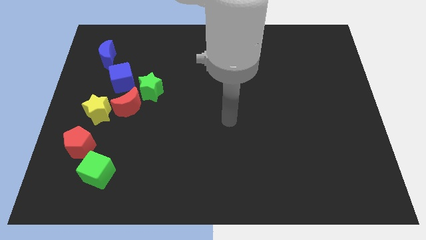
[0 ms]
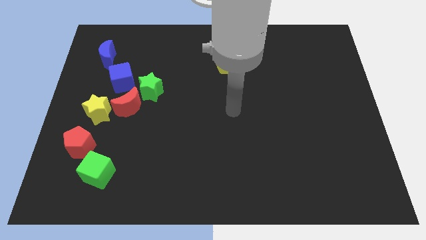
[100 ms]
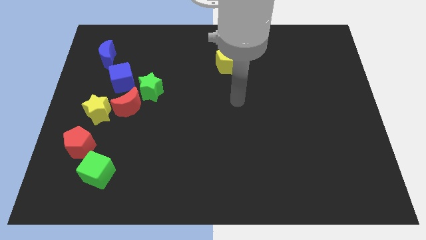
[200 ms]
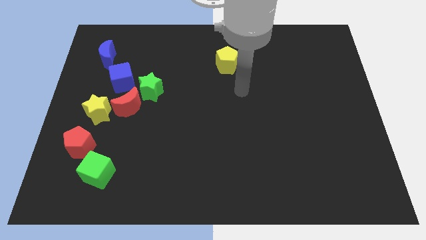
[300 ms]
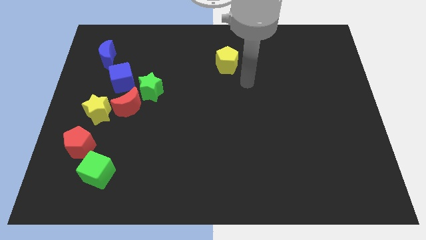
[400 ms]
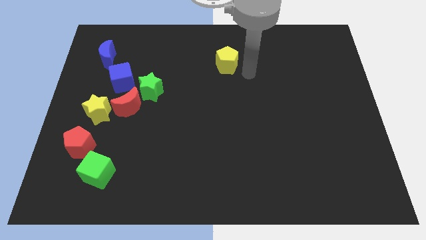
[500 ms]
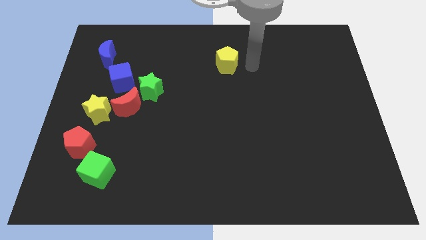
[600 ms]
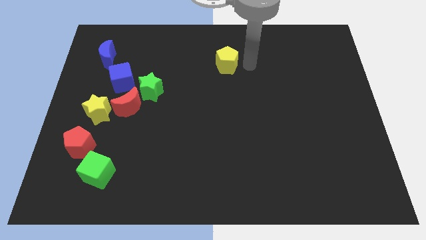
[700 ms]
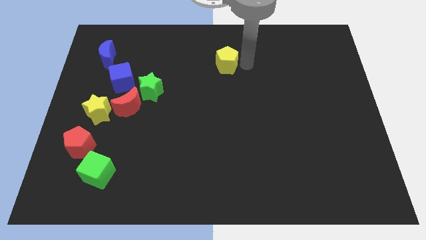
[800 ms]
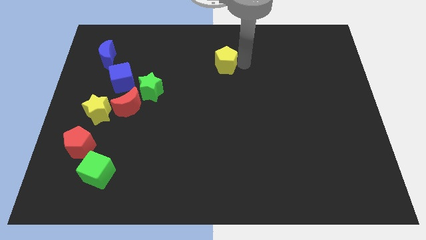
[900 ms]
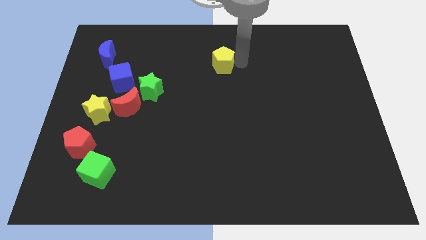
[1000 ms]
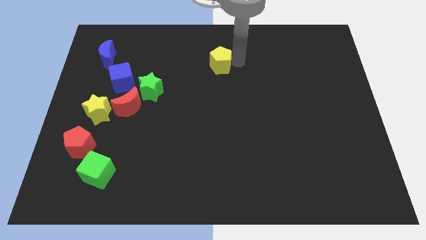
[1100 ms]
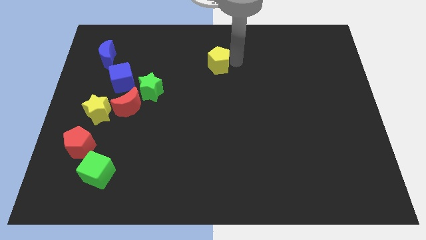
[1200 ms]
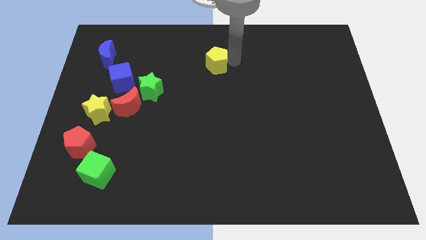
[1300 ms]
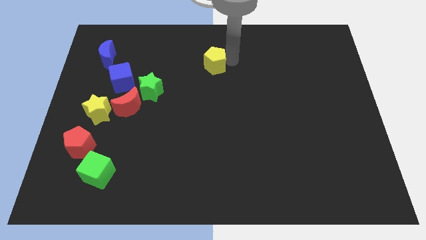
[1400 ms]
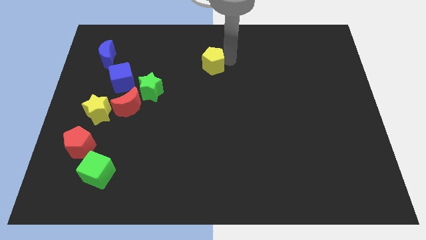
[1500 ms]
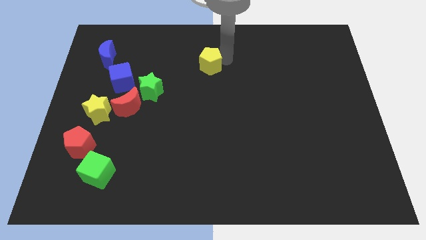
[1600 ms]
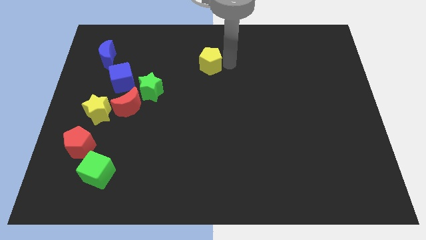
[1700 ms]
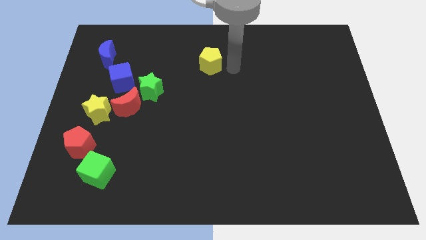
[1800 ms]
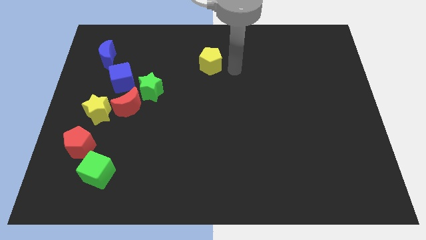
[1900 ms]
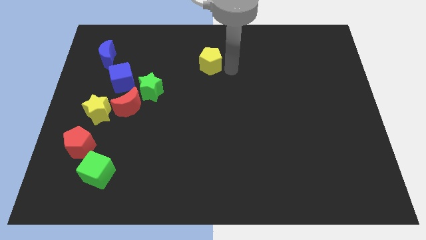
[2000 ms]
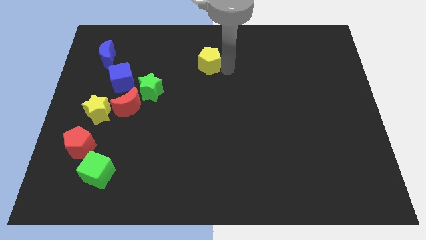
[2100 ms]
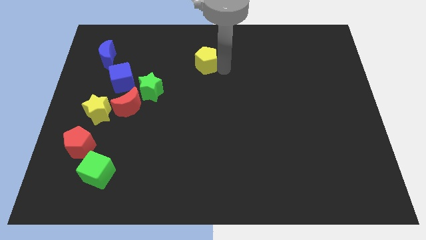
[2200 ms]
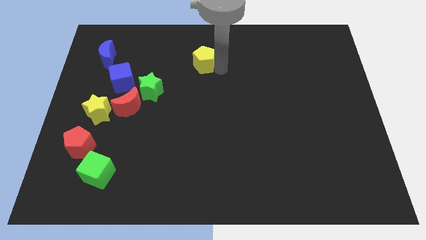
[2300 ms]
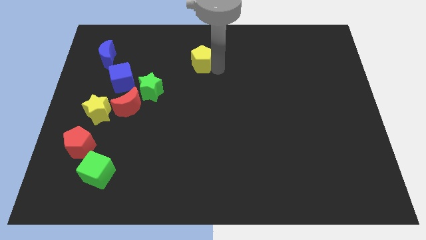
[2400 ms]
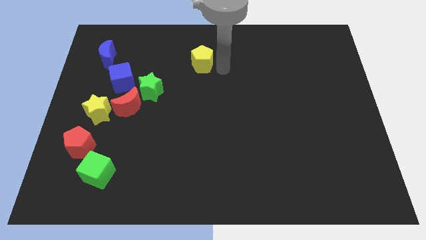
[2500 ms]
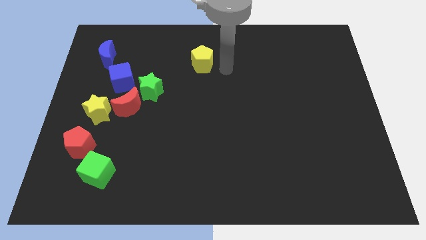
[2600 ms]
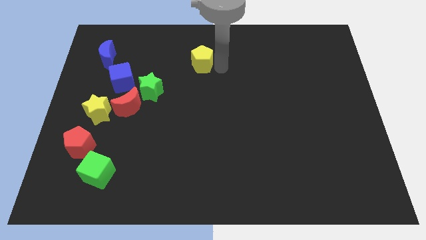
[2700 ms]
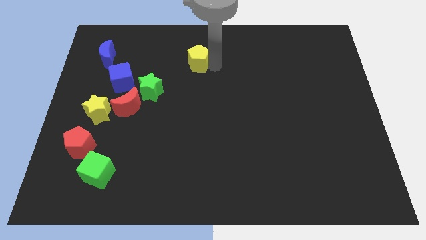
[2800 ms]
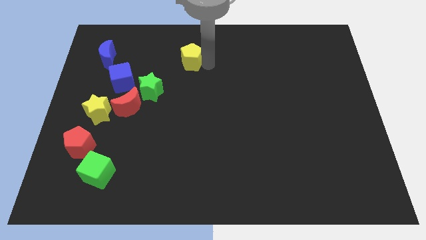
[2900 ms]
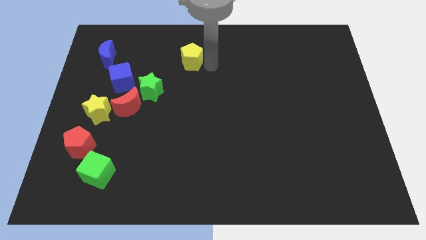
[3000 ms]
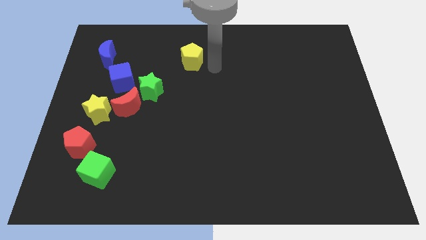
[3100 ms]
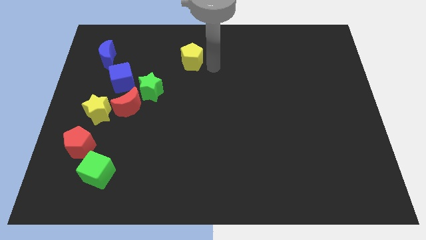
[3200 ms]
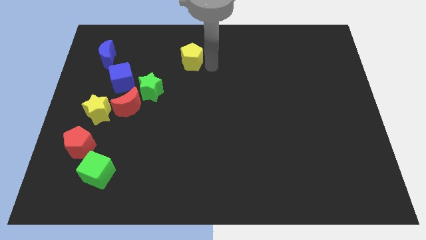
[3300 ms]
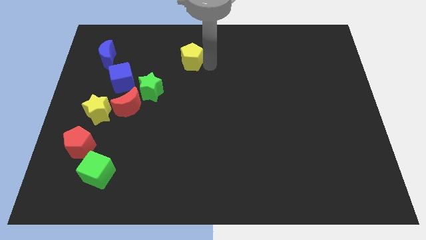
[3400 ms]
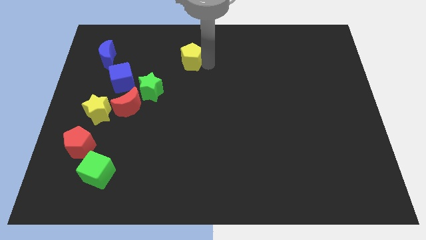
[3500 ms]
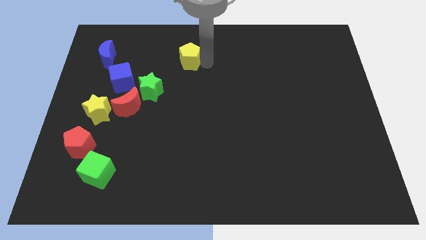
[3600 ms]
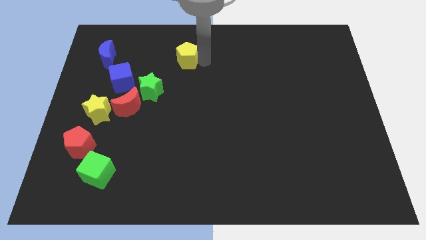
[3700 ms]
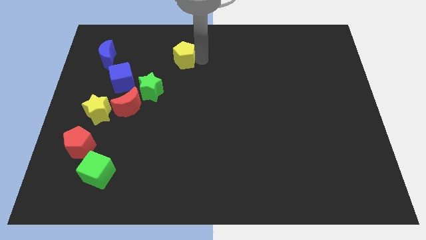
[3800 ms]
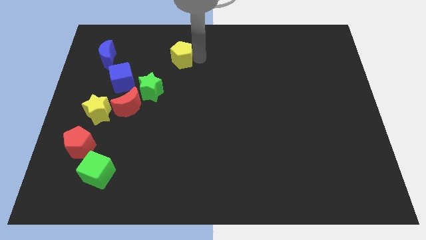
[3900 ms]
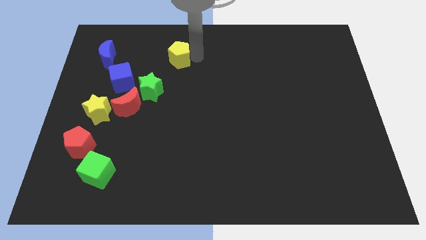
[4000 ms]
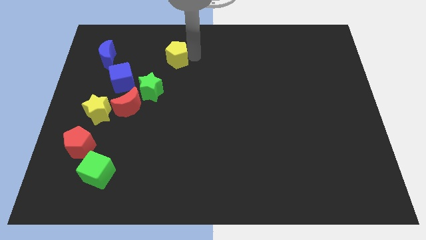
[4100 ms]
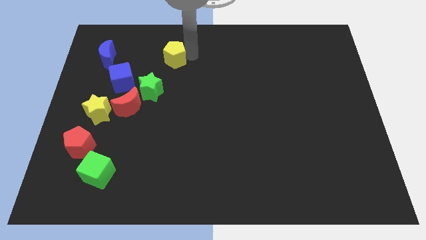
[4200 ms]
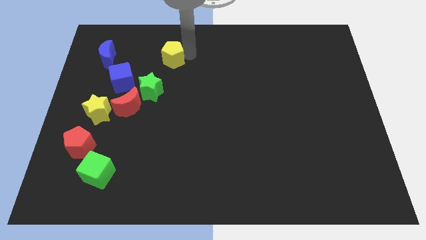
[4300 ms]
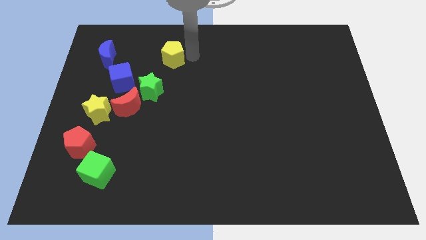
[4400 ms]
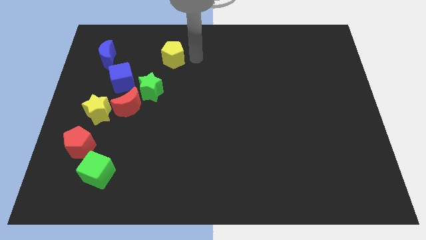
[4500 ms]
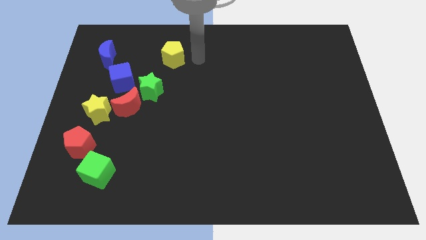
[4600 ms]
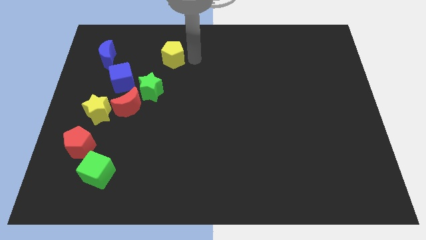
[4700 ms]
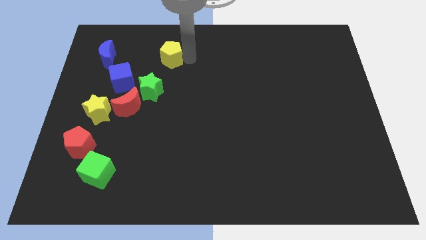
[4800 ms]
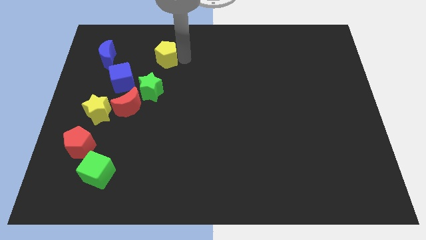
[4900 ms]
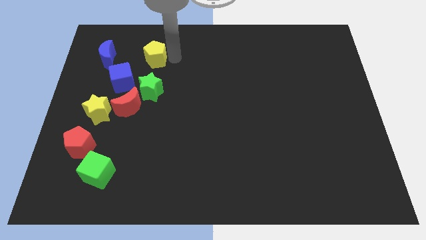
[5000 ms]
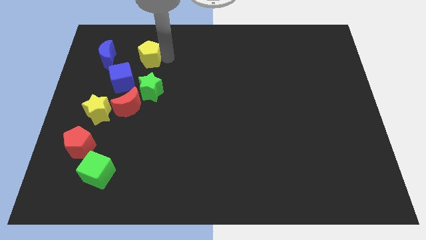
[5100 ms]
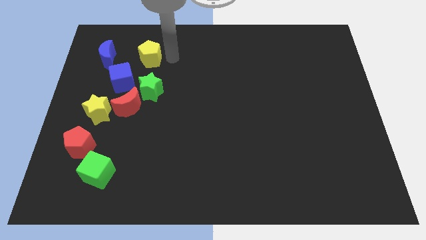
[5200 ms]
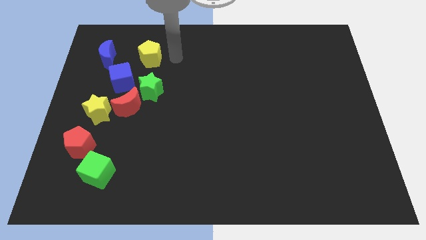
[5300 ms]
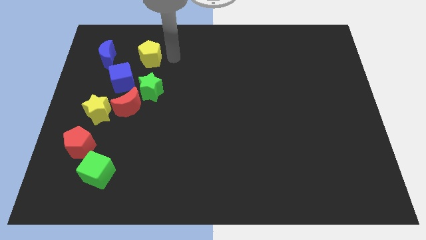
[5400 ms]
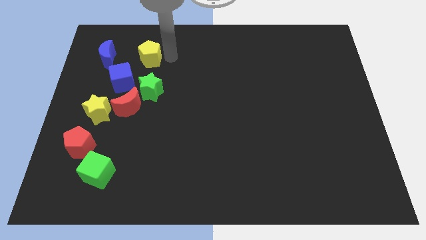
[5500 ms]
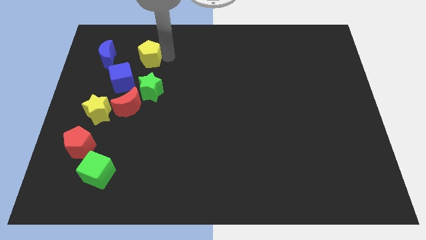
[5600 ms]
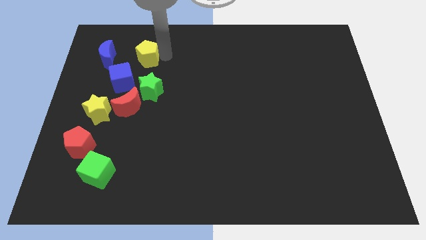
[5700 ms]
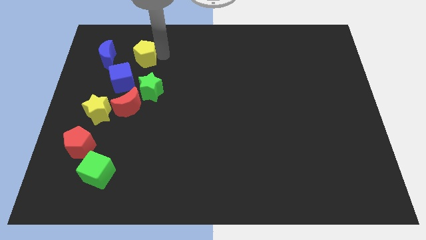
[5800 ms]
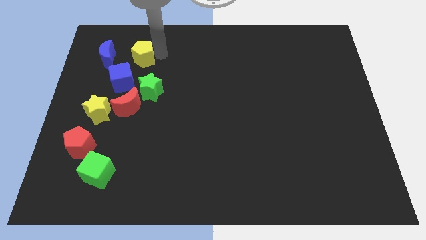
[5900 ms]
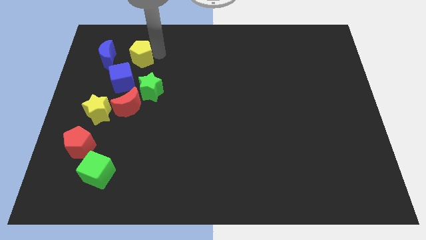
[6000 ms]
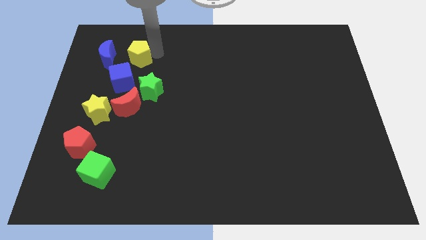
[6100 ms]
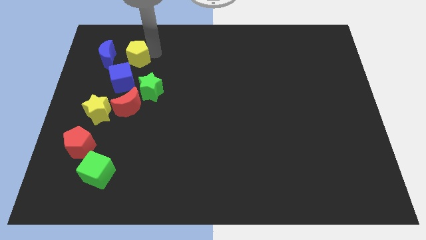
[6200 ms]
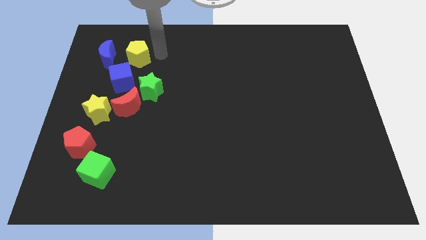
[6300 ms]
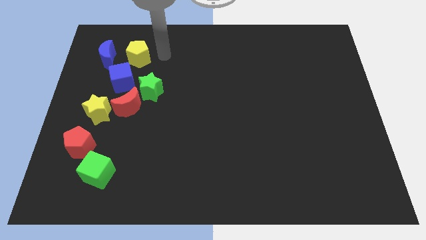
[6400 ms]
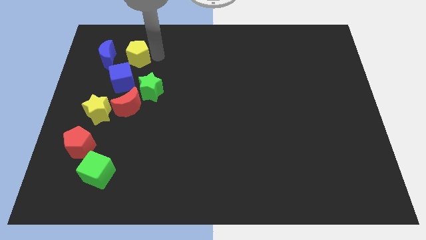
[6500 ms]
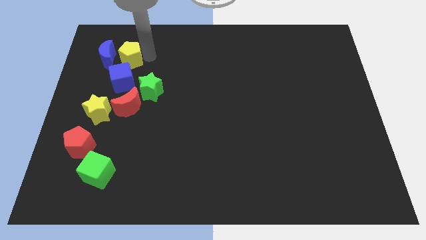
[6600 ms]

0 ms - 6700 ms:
slide the yellow pentagon close to the blue moon

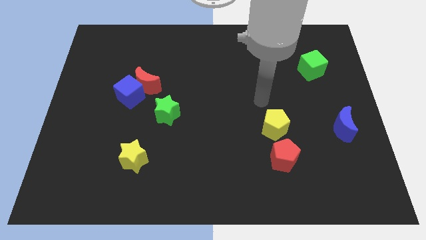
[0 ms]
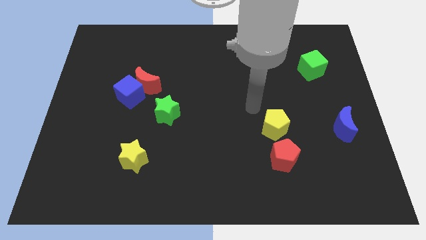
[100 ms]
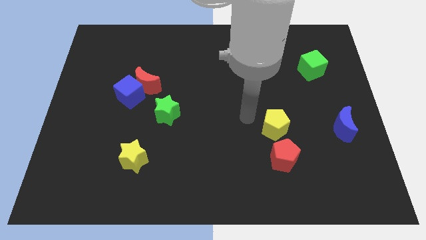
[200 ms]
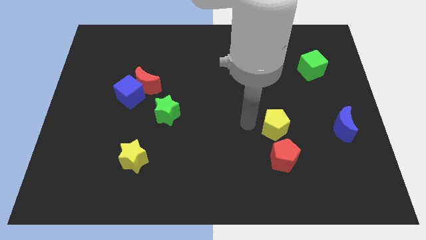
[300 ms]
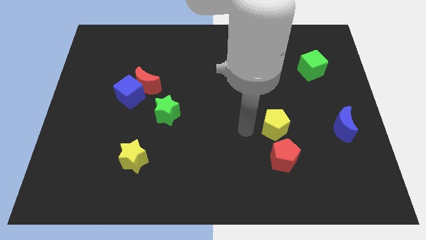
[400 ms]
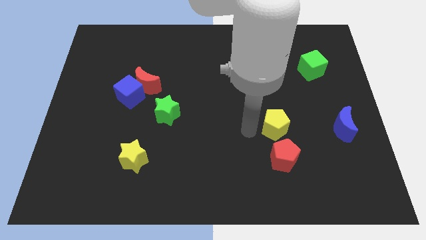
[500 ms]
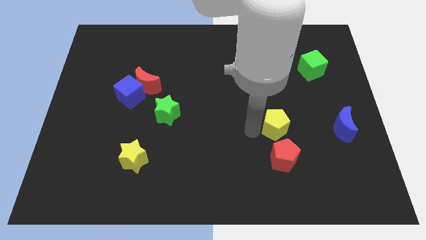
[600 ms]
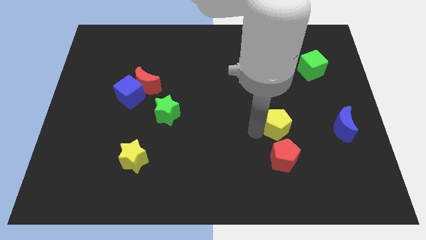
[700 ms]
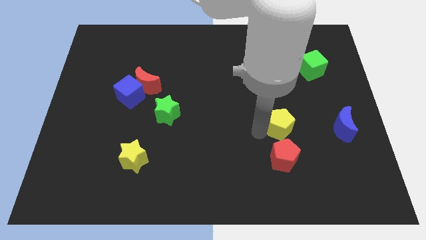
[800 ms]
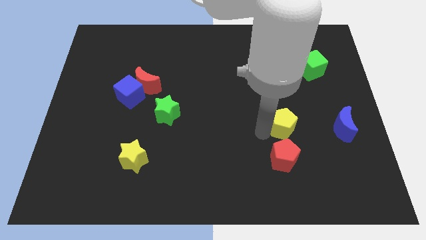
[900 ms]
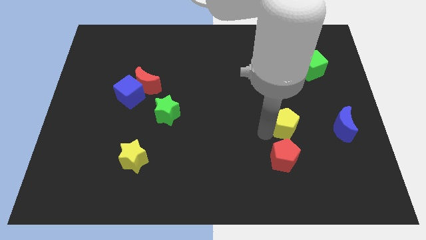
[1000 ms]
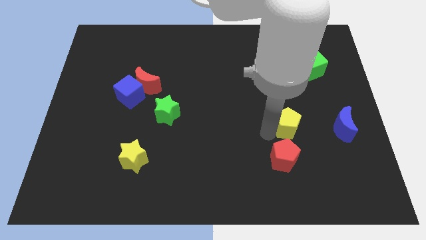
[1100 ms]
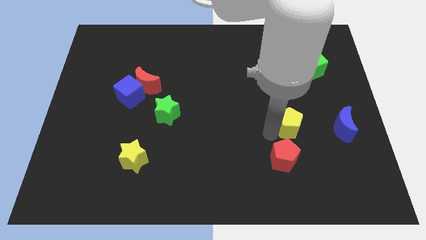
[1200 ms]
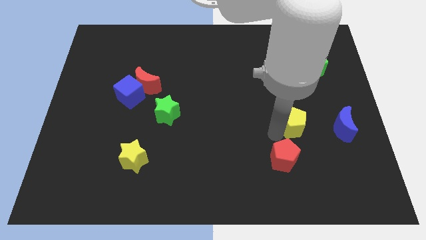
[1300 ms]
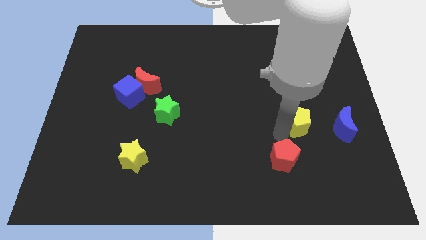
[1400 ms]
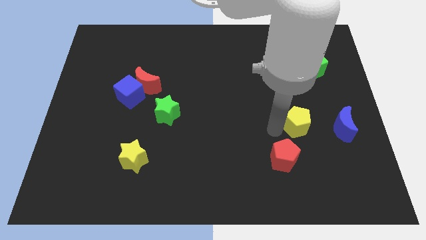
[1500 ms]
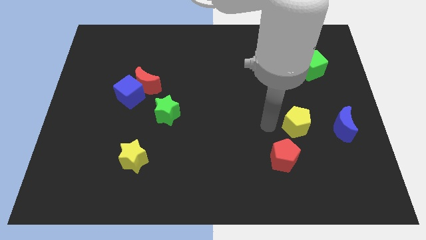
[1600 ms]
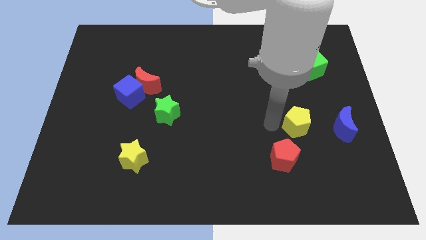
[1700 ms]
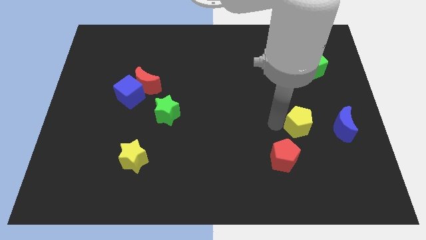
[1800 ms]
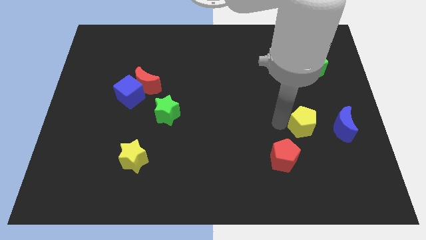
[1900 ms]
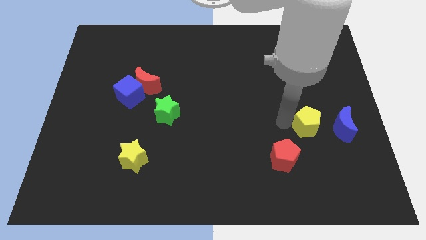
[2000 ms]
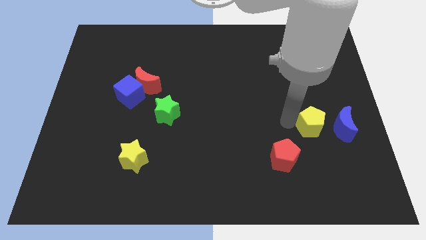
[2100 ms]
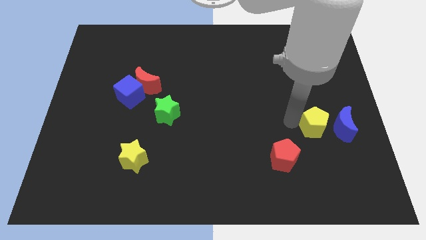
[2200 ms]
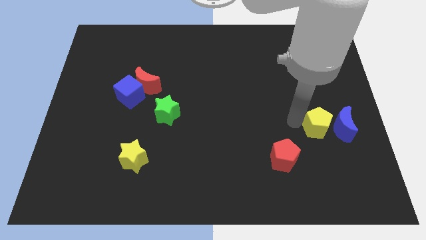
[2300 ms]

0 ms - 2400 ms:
push the yellow pentagon to the blue moon
